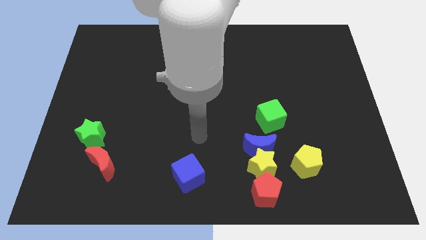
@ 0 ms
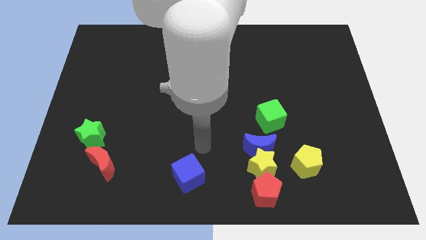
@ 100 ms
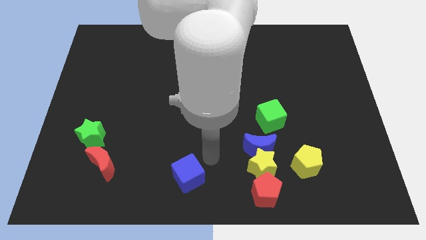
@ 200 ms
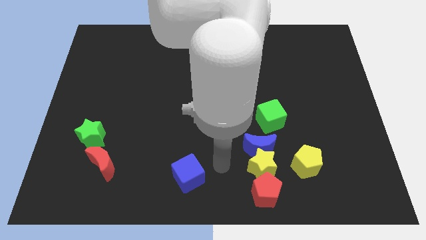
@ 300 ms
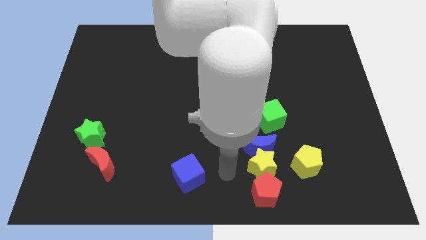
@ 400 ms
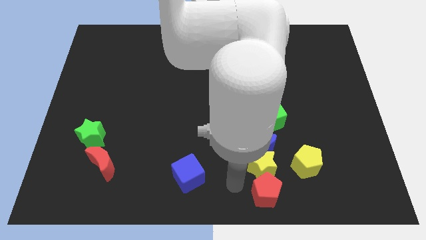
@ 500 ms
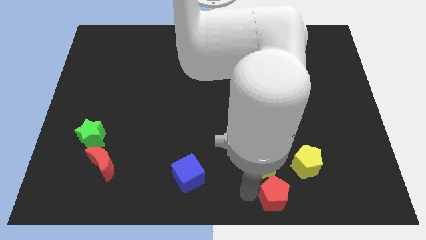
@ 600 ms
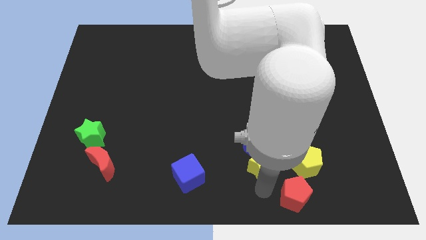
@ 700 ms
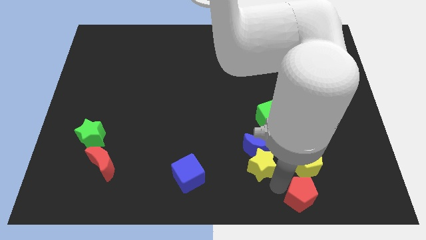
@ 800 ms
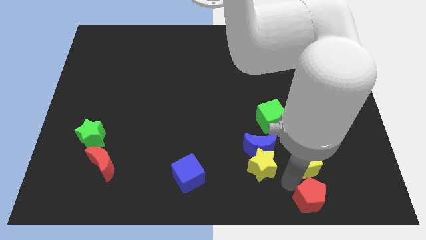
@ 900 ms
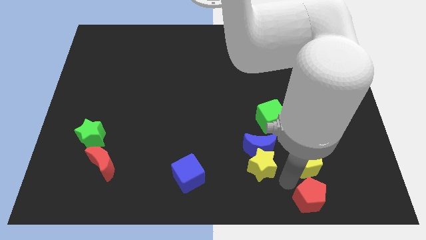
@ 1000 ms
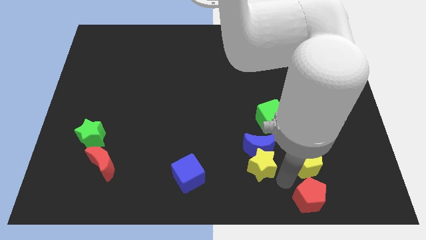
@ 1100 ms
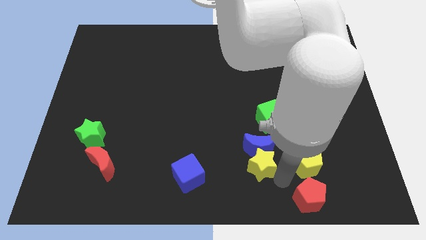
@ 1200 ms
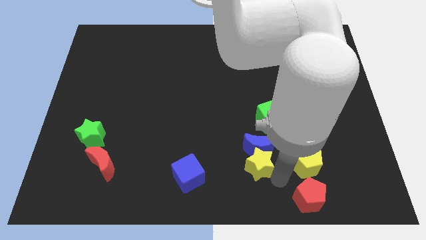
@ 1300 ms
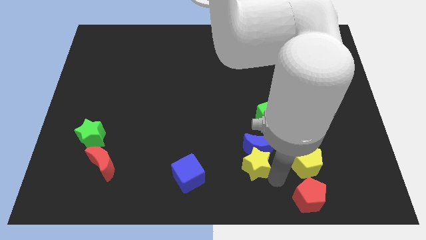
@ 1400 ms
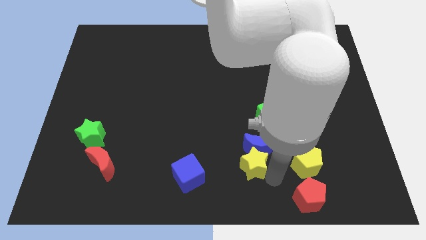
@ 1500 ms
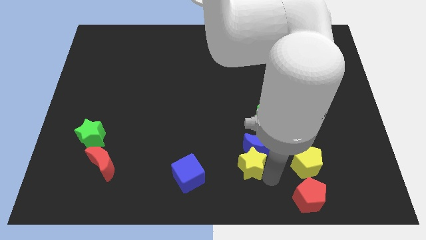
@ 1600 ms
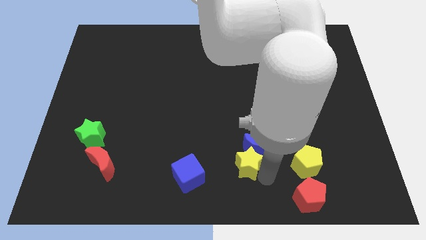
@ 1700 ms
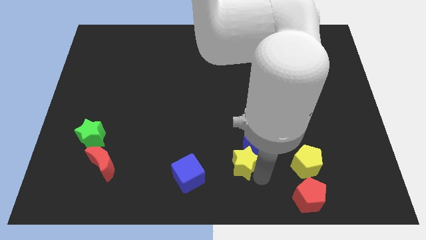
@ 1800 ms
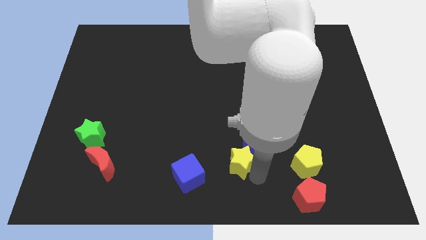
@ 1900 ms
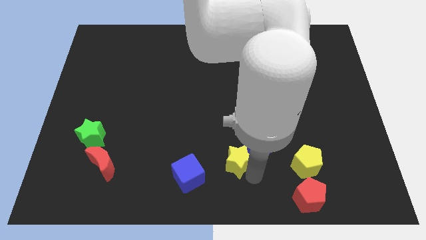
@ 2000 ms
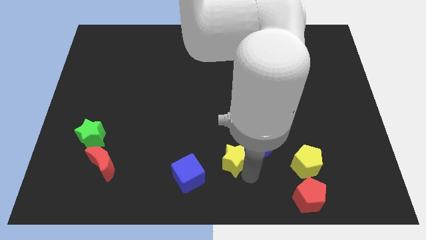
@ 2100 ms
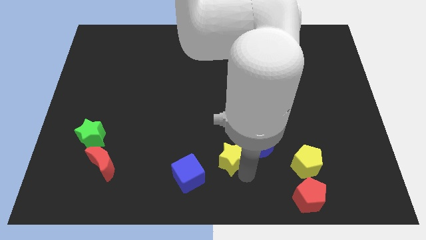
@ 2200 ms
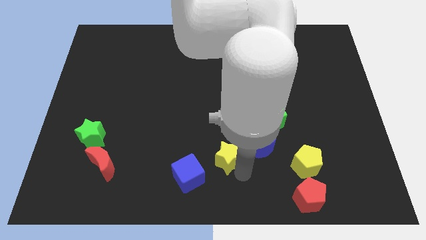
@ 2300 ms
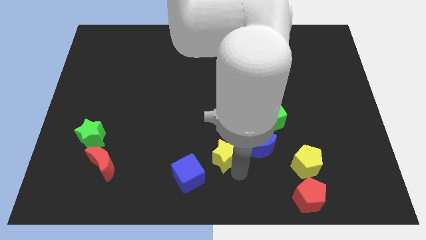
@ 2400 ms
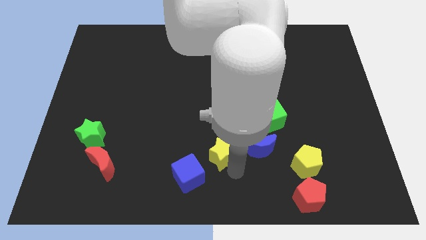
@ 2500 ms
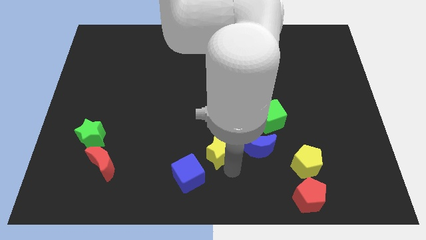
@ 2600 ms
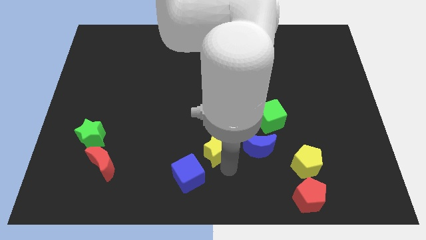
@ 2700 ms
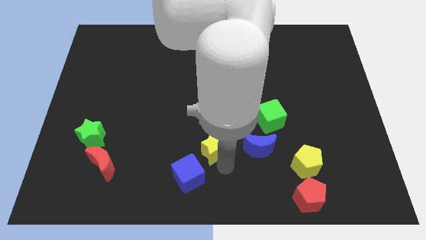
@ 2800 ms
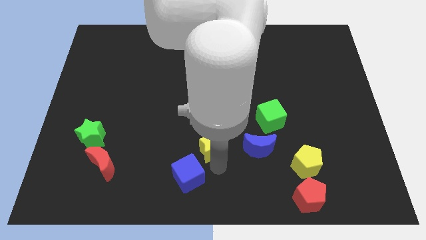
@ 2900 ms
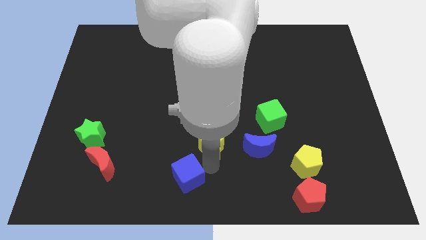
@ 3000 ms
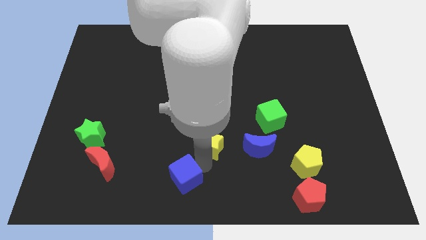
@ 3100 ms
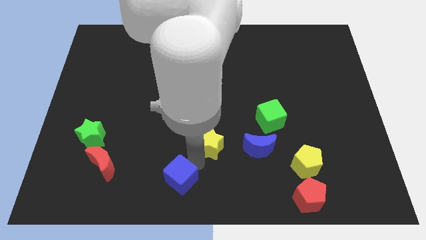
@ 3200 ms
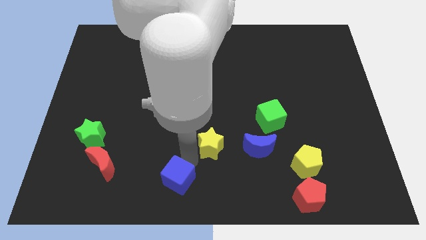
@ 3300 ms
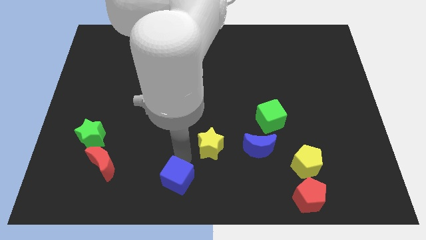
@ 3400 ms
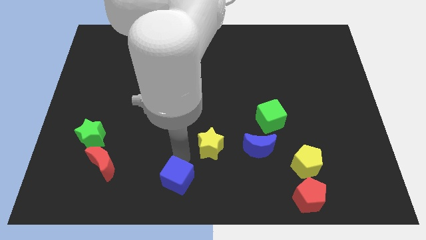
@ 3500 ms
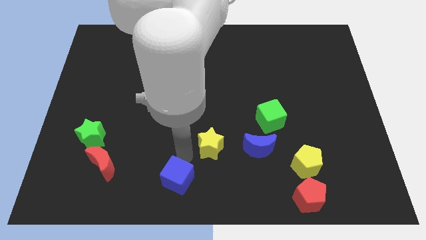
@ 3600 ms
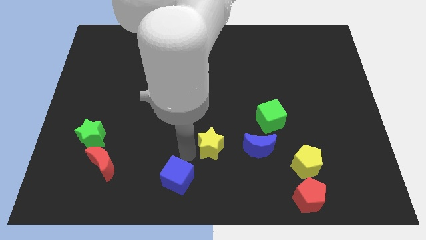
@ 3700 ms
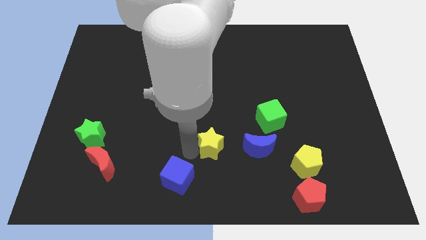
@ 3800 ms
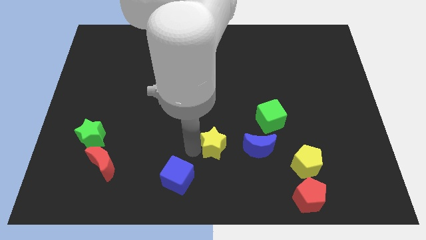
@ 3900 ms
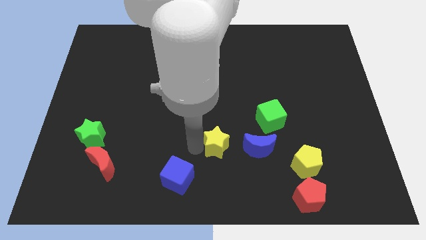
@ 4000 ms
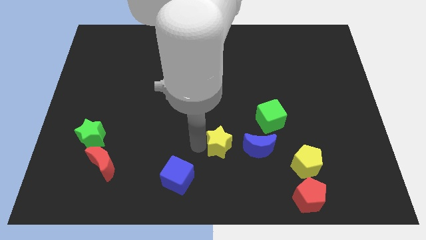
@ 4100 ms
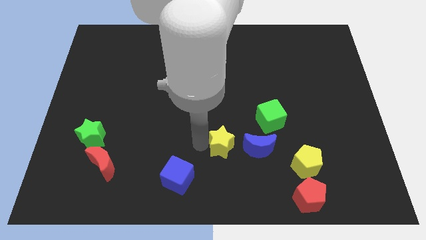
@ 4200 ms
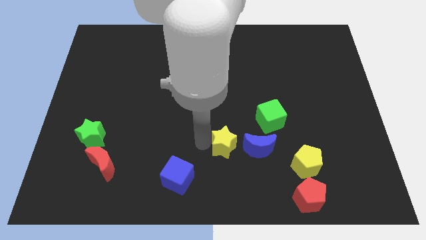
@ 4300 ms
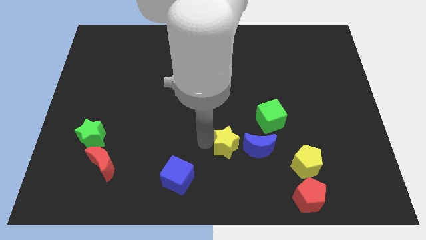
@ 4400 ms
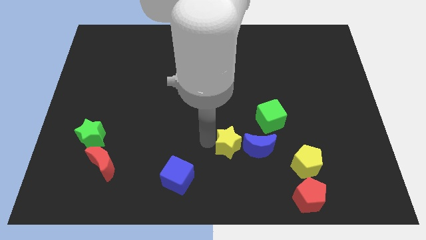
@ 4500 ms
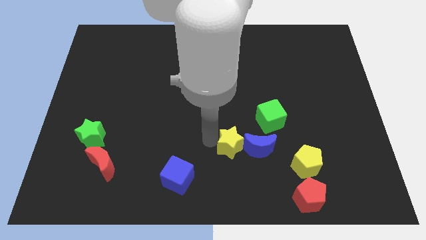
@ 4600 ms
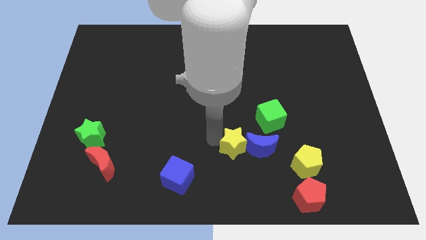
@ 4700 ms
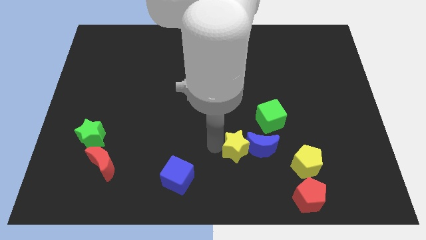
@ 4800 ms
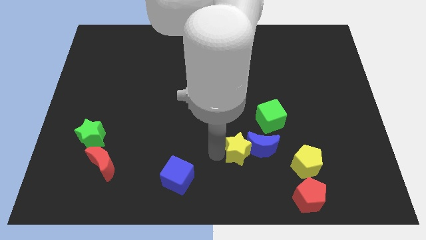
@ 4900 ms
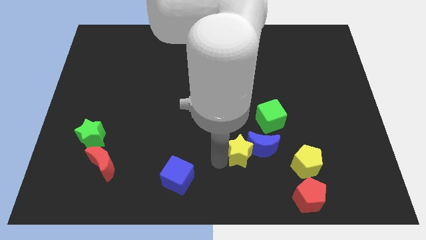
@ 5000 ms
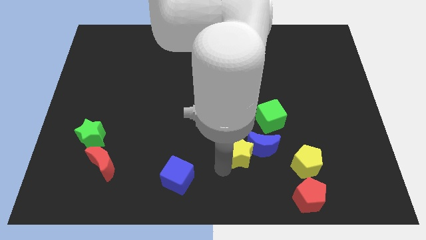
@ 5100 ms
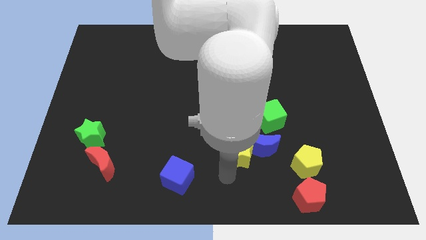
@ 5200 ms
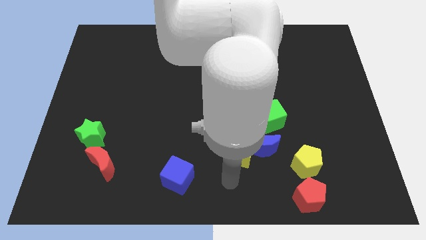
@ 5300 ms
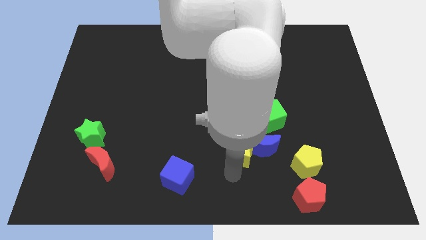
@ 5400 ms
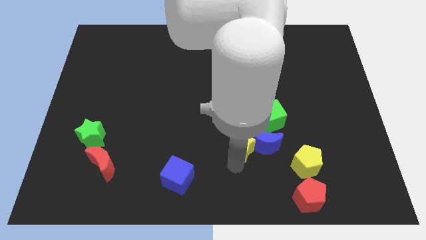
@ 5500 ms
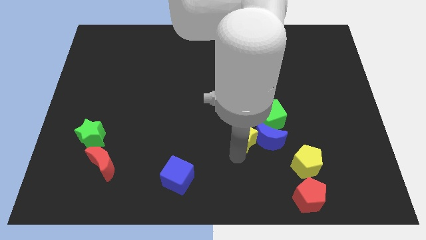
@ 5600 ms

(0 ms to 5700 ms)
slightly slide the yellow star upwards

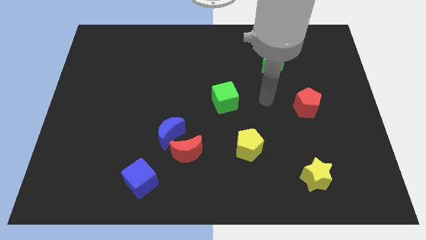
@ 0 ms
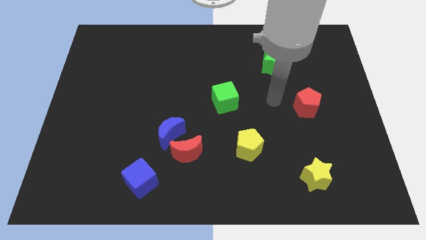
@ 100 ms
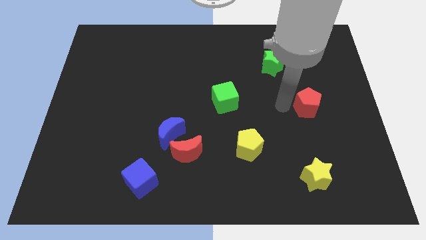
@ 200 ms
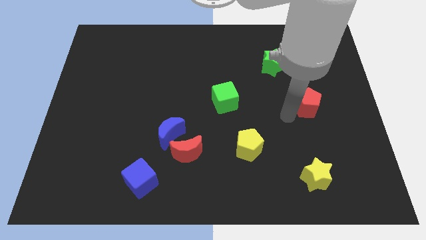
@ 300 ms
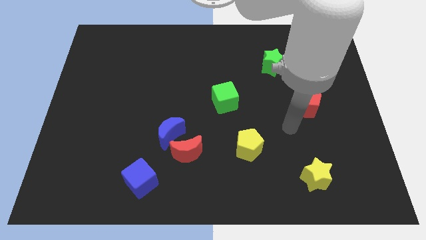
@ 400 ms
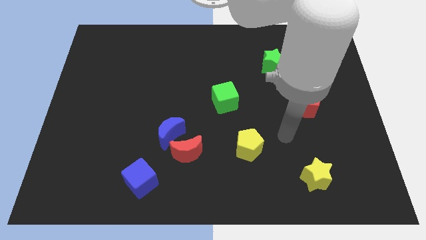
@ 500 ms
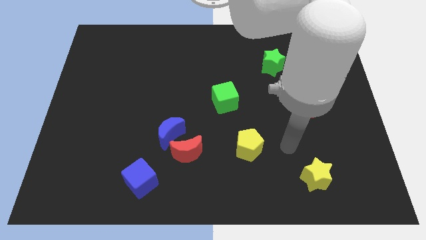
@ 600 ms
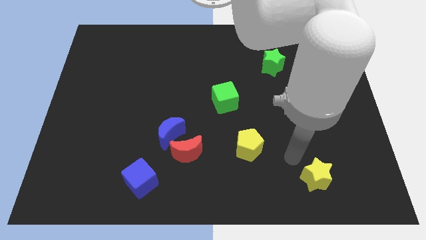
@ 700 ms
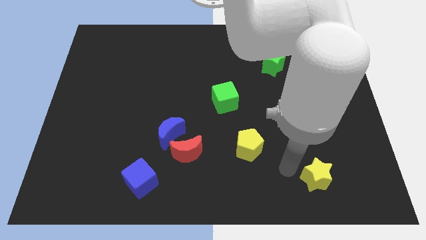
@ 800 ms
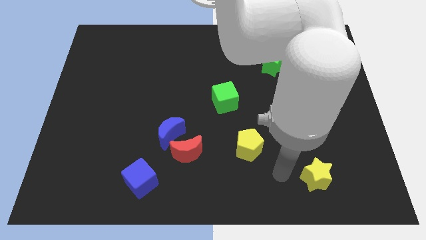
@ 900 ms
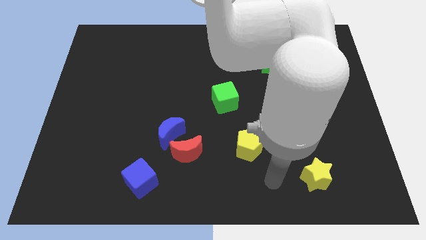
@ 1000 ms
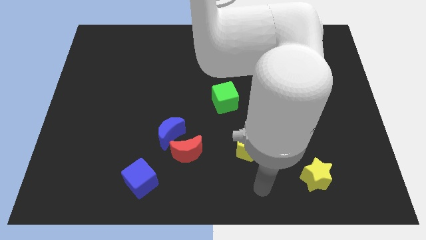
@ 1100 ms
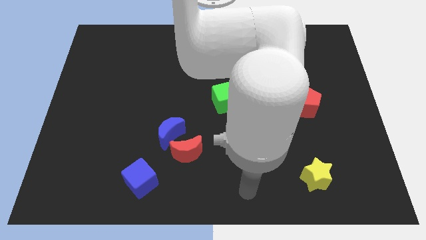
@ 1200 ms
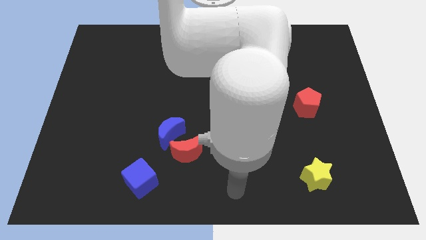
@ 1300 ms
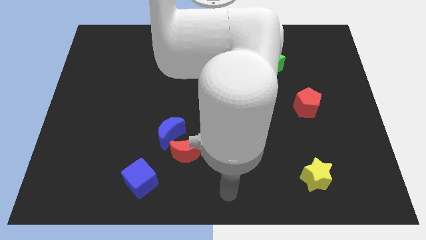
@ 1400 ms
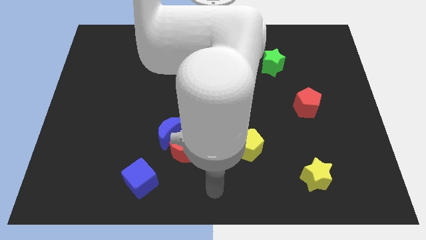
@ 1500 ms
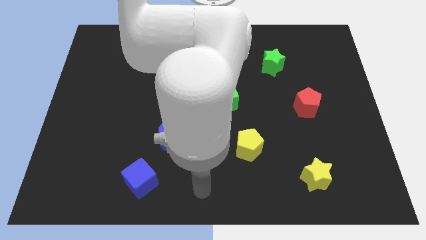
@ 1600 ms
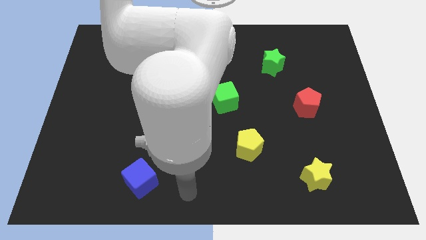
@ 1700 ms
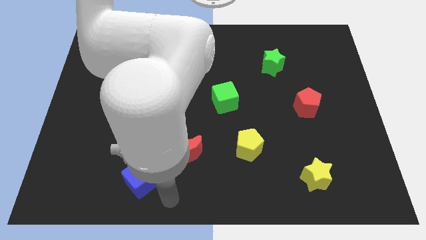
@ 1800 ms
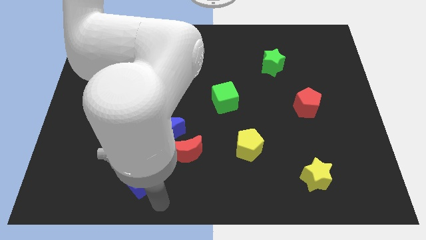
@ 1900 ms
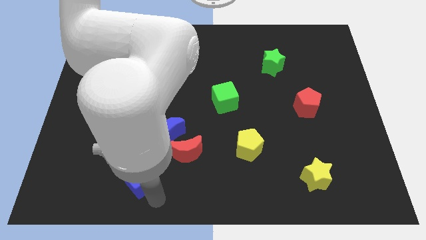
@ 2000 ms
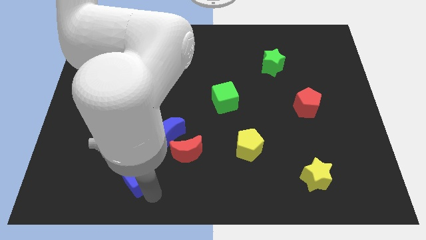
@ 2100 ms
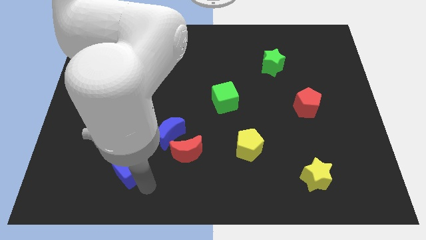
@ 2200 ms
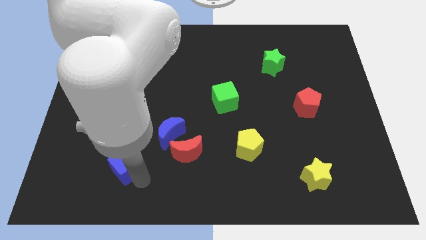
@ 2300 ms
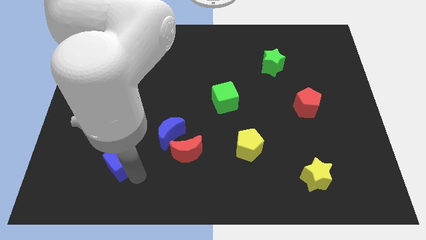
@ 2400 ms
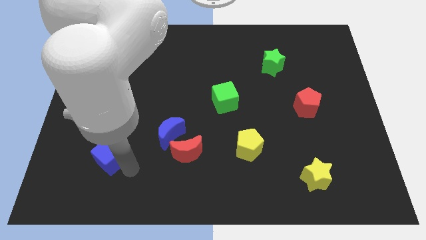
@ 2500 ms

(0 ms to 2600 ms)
push the blue cube diagonally upwards and to the left a little
